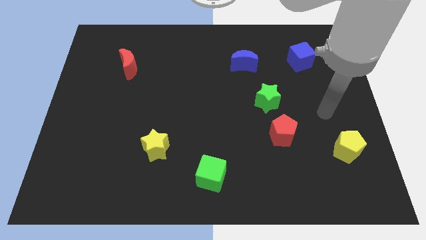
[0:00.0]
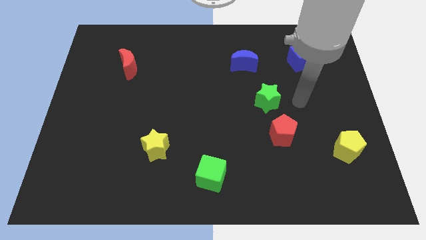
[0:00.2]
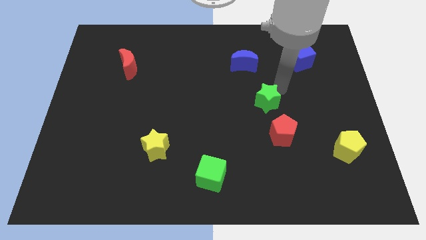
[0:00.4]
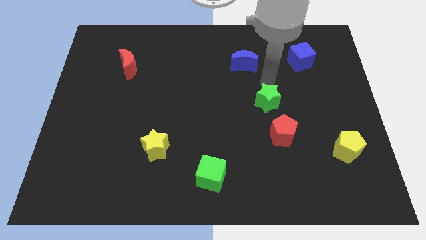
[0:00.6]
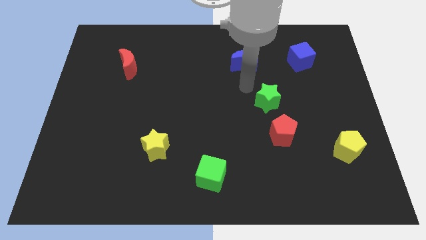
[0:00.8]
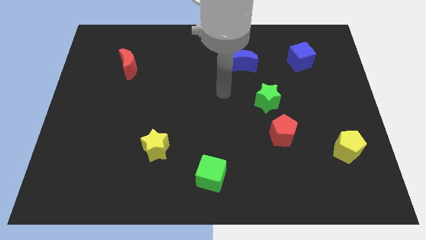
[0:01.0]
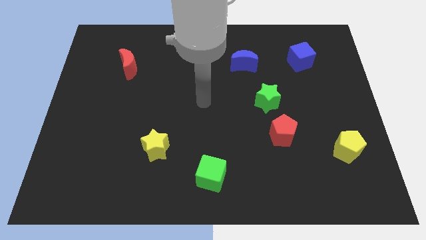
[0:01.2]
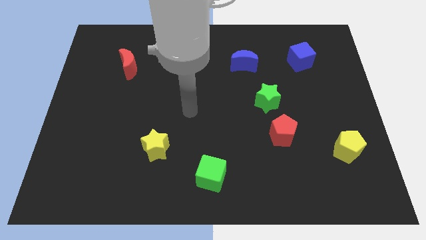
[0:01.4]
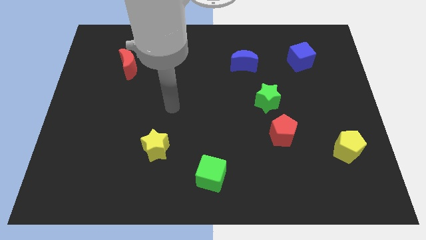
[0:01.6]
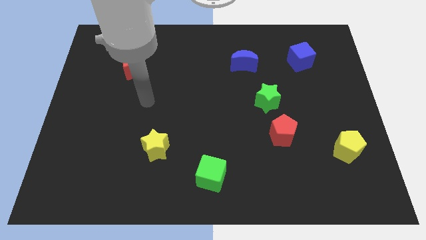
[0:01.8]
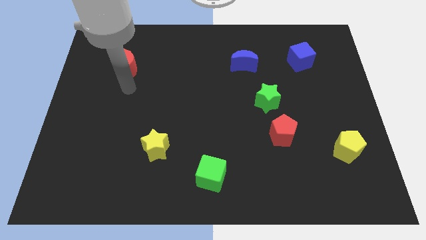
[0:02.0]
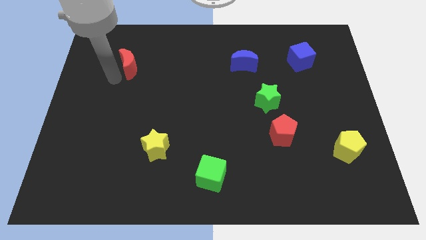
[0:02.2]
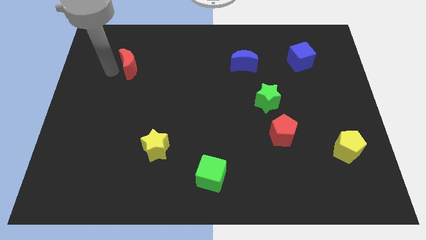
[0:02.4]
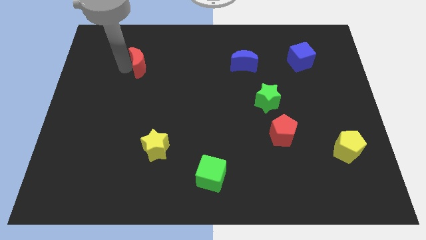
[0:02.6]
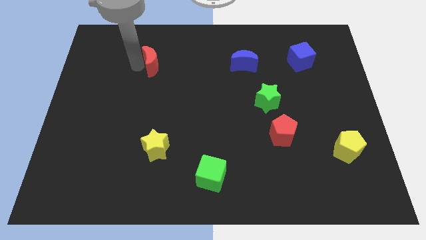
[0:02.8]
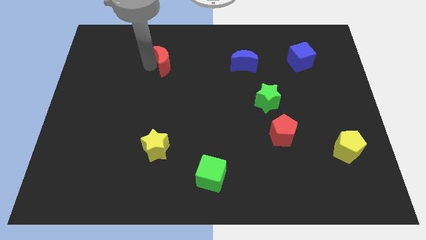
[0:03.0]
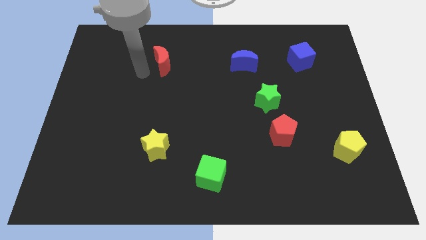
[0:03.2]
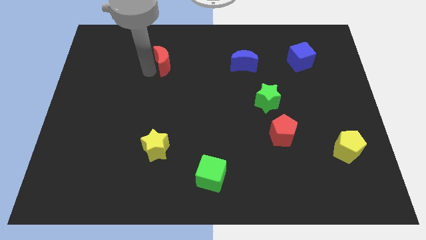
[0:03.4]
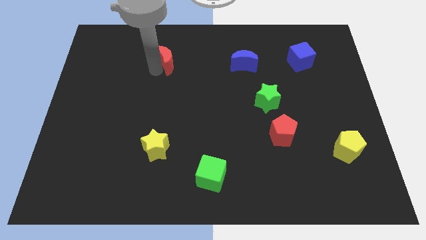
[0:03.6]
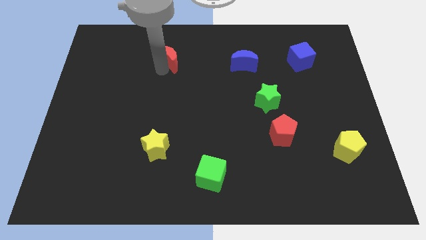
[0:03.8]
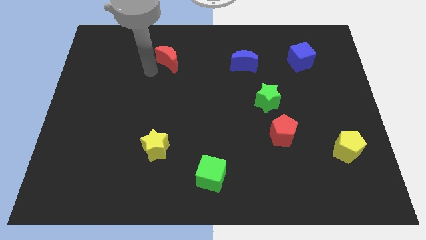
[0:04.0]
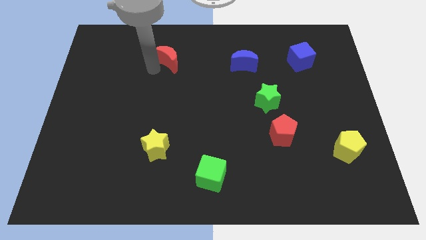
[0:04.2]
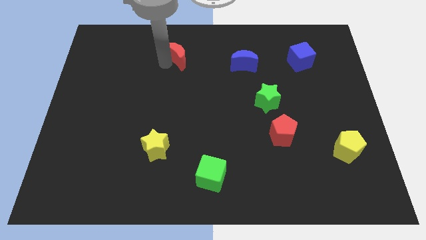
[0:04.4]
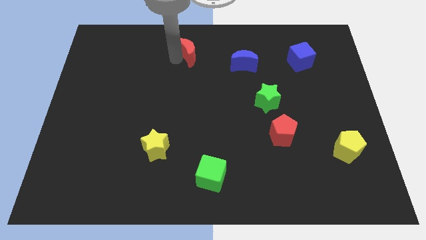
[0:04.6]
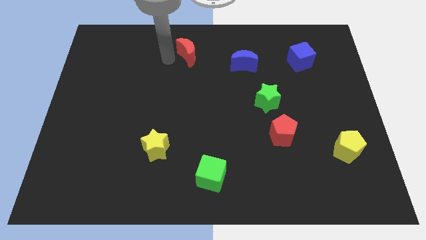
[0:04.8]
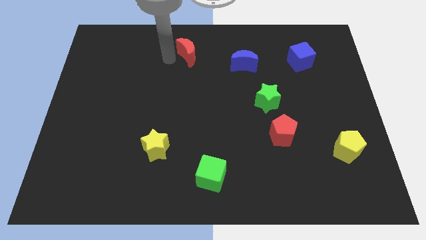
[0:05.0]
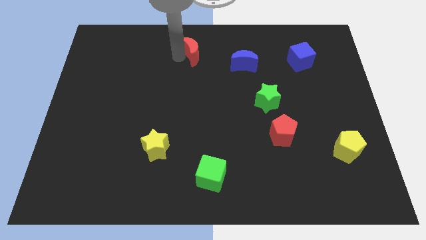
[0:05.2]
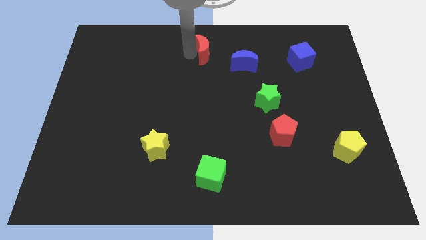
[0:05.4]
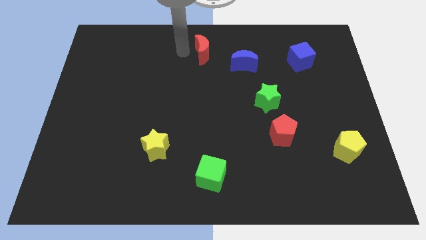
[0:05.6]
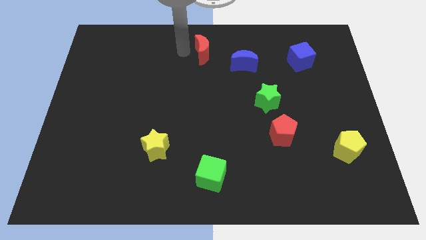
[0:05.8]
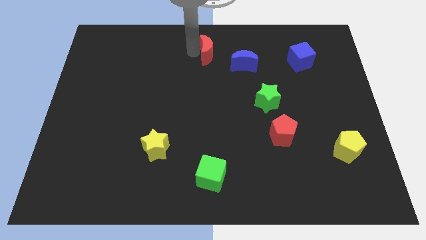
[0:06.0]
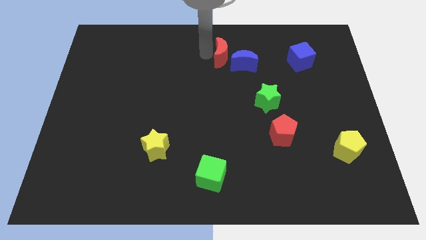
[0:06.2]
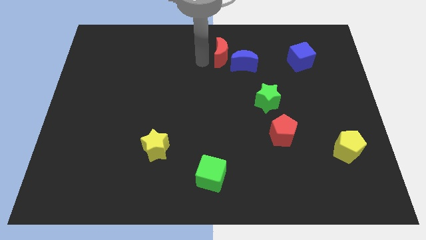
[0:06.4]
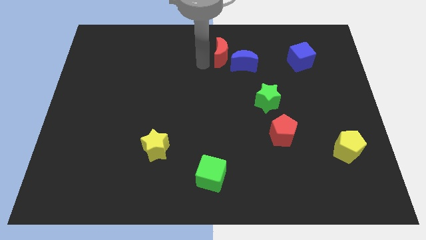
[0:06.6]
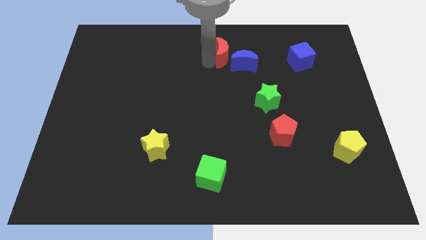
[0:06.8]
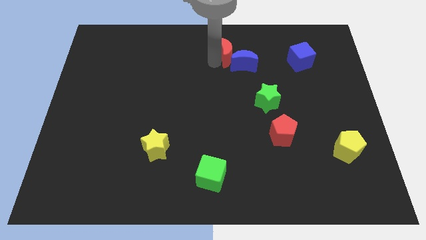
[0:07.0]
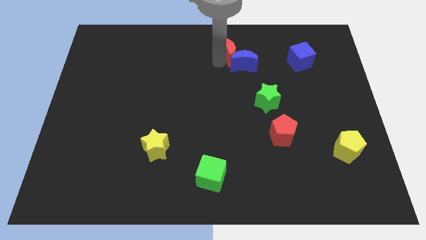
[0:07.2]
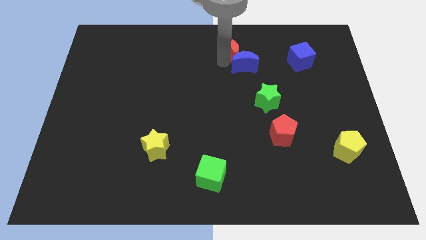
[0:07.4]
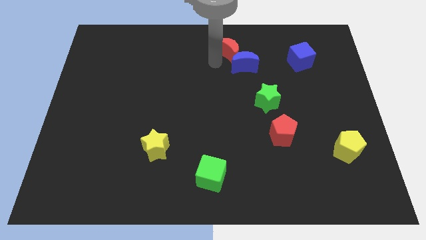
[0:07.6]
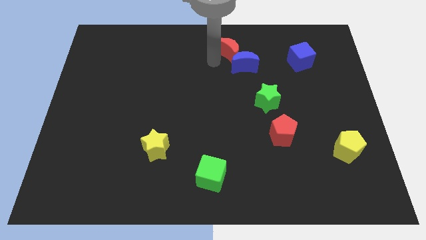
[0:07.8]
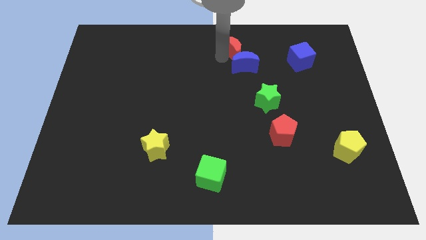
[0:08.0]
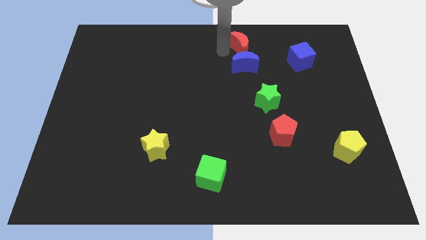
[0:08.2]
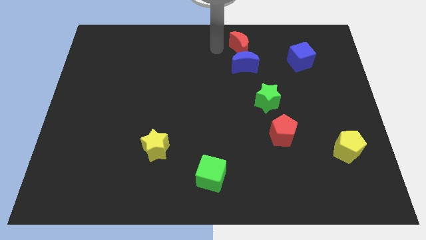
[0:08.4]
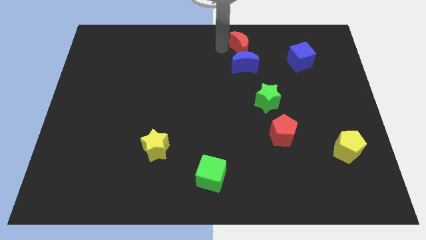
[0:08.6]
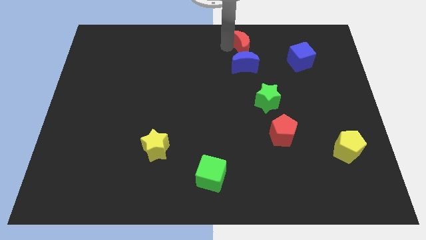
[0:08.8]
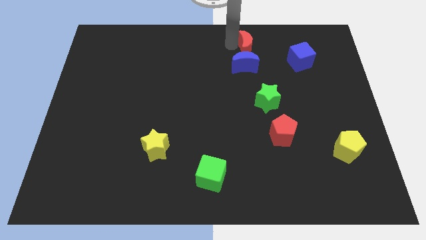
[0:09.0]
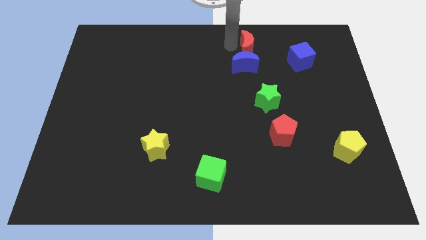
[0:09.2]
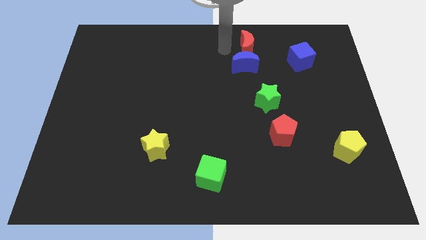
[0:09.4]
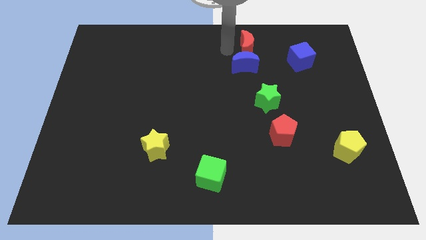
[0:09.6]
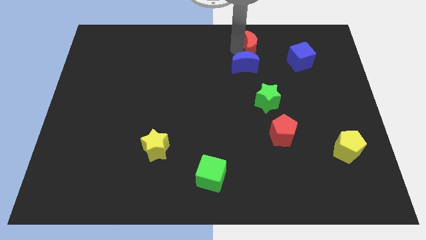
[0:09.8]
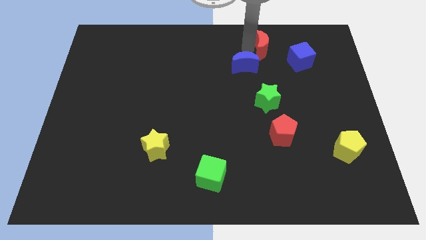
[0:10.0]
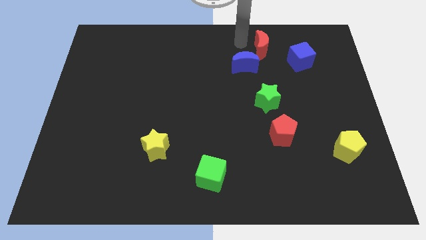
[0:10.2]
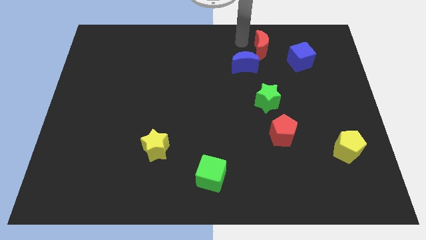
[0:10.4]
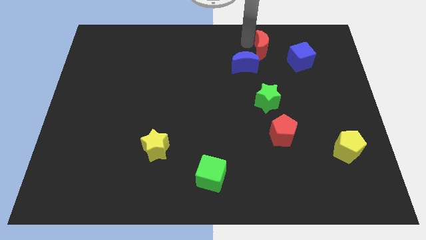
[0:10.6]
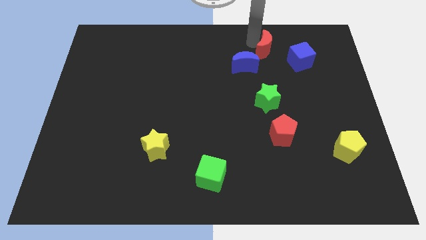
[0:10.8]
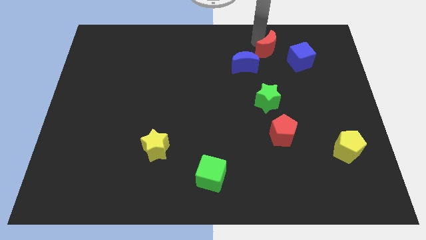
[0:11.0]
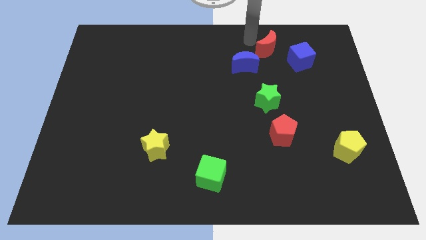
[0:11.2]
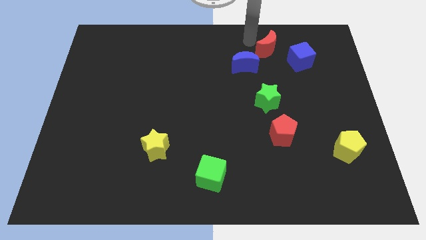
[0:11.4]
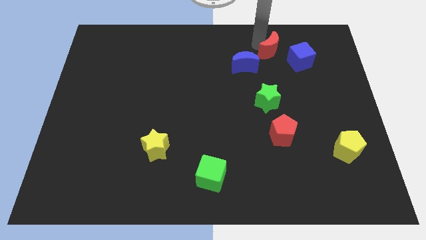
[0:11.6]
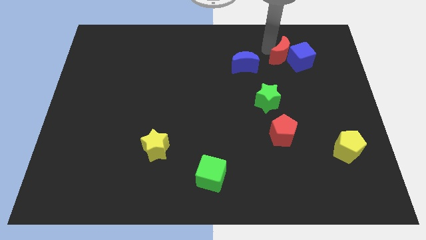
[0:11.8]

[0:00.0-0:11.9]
slide the red moon to the blue cube

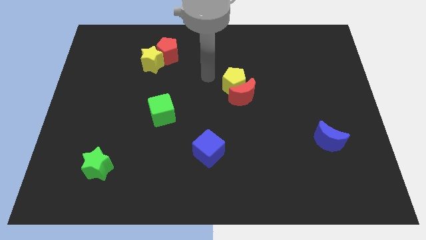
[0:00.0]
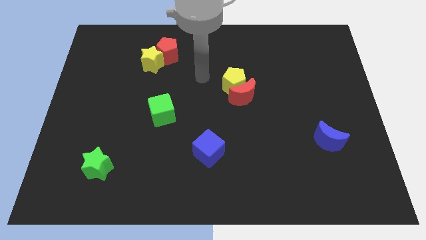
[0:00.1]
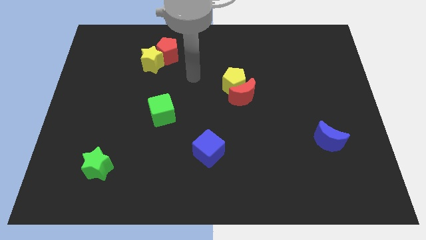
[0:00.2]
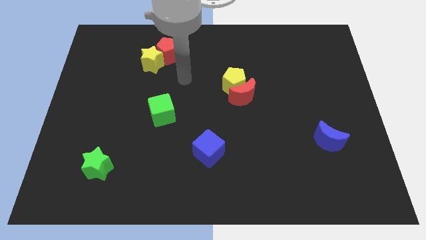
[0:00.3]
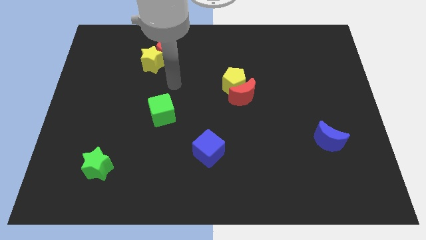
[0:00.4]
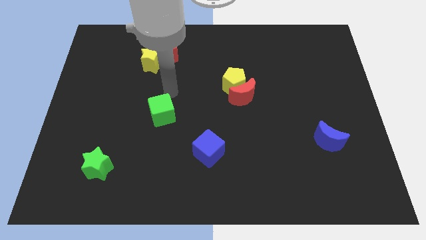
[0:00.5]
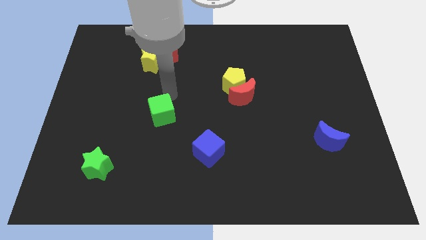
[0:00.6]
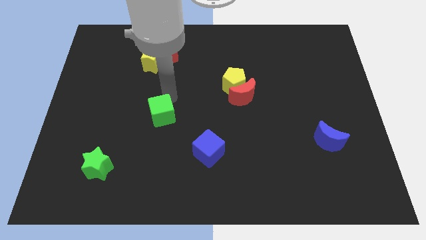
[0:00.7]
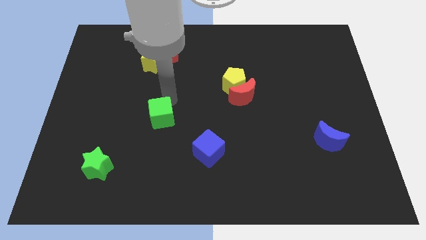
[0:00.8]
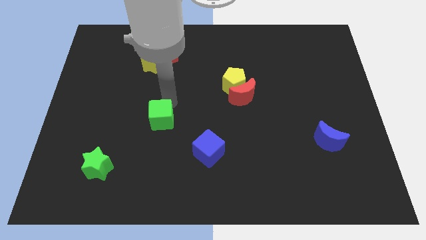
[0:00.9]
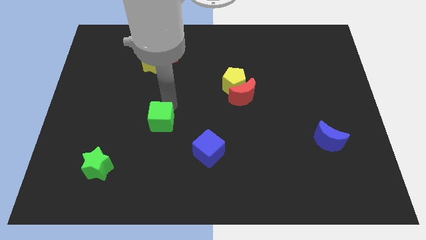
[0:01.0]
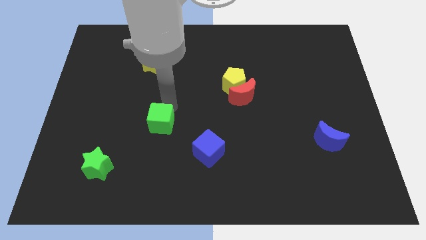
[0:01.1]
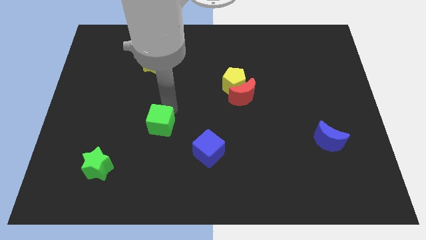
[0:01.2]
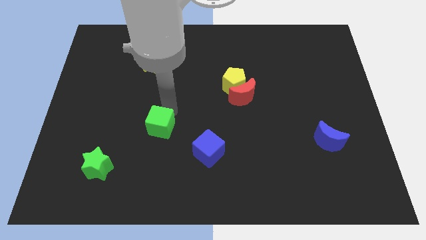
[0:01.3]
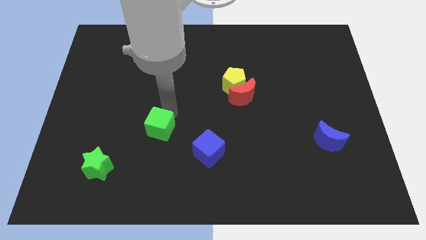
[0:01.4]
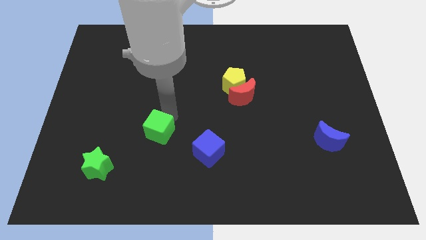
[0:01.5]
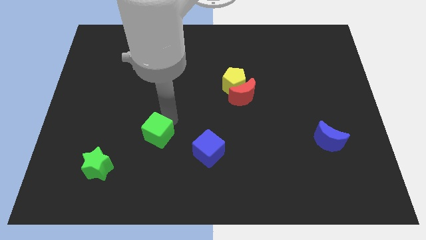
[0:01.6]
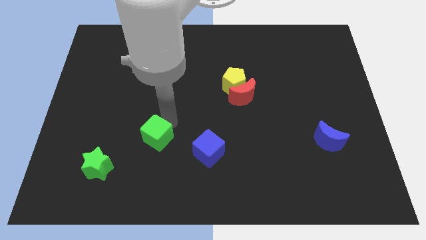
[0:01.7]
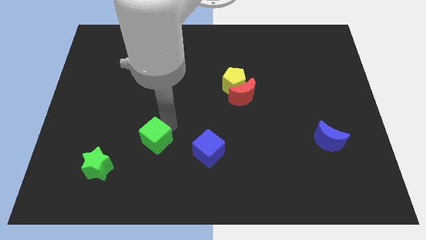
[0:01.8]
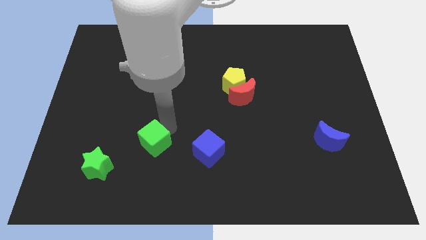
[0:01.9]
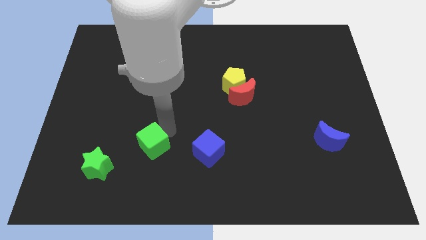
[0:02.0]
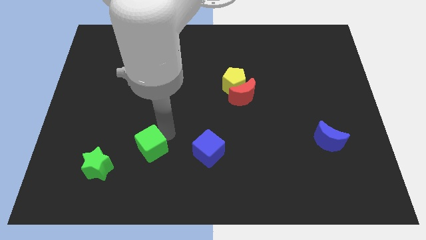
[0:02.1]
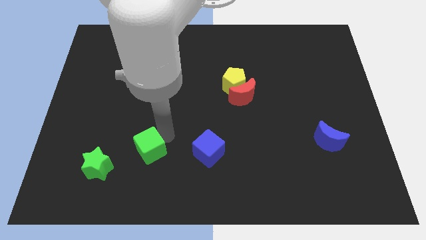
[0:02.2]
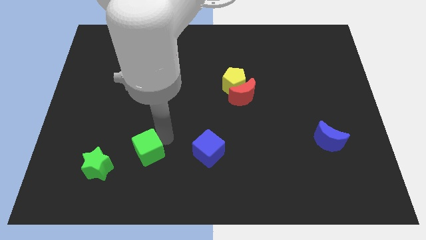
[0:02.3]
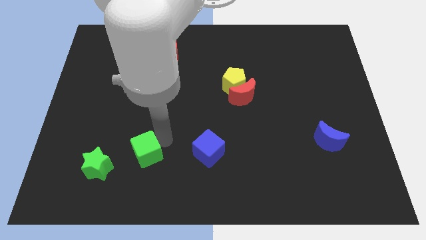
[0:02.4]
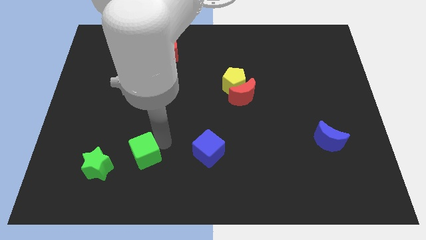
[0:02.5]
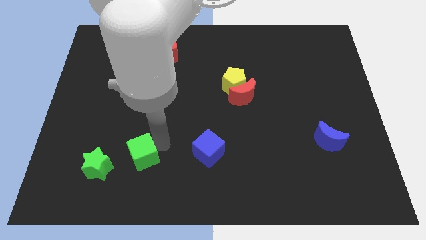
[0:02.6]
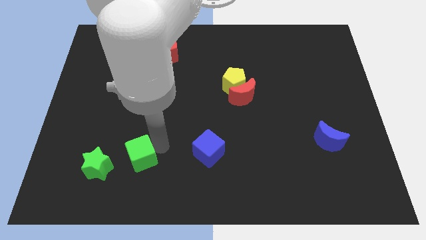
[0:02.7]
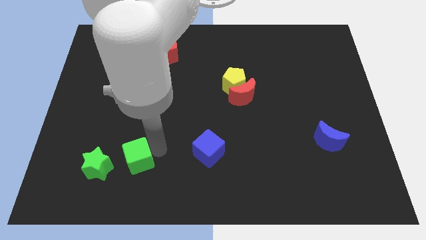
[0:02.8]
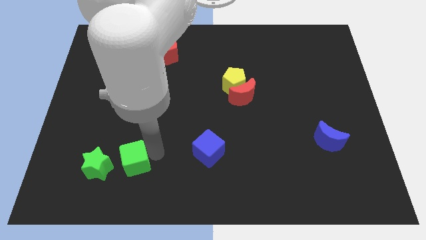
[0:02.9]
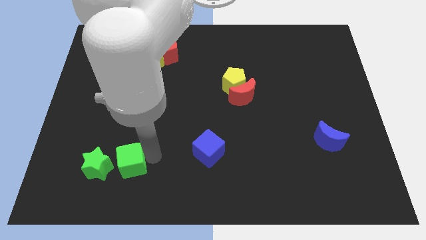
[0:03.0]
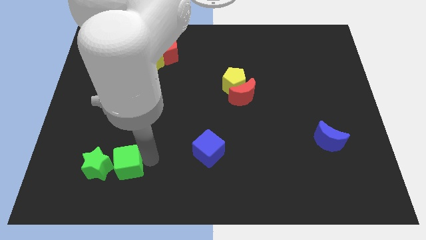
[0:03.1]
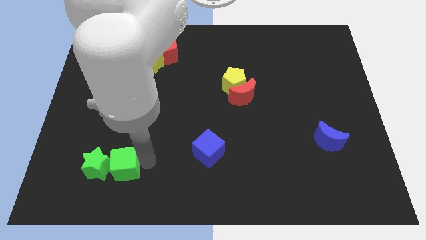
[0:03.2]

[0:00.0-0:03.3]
move the green cube close to the green star
